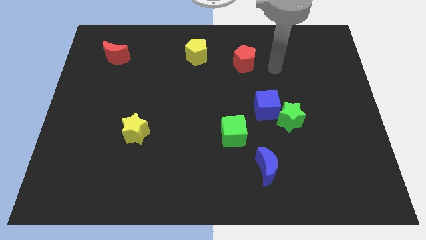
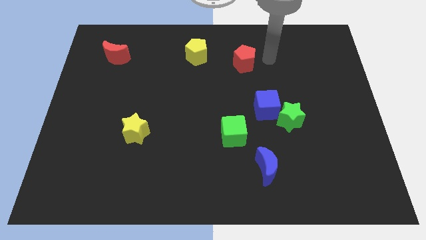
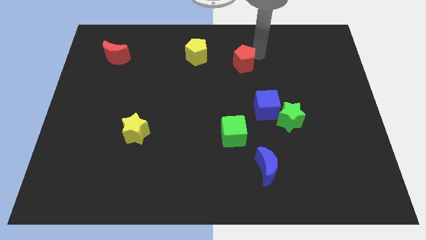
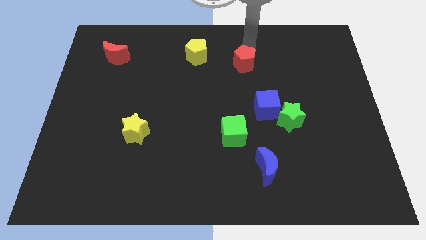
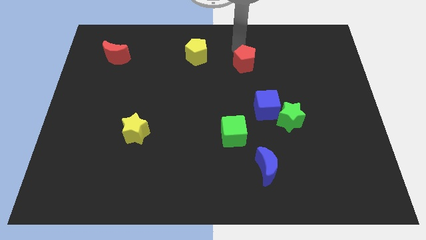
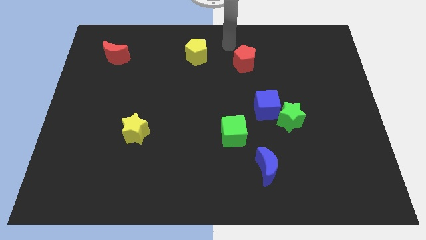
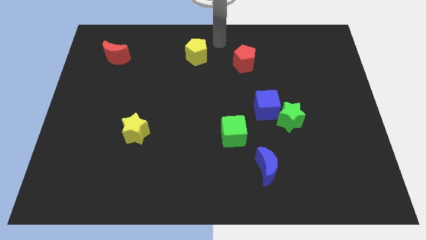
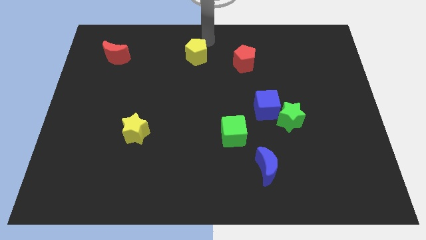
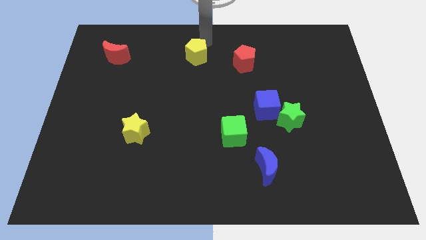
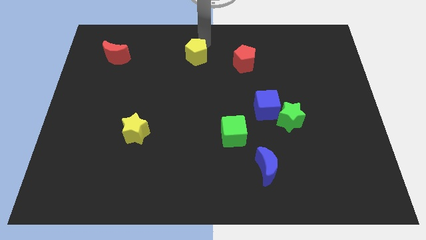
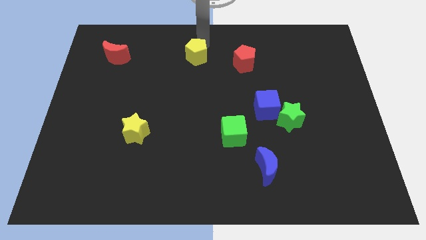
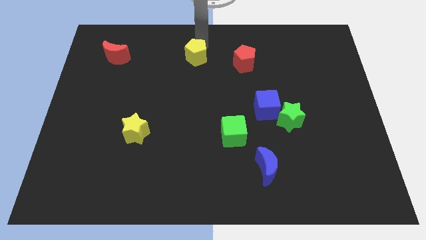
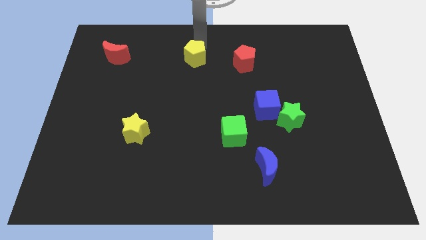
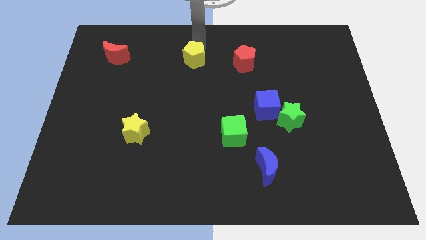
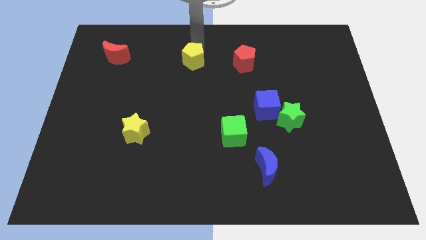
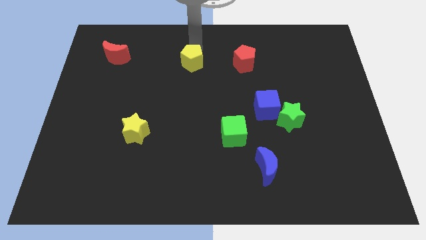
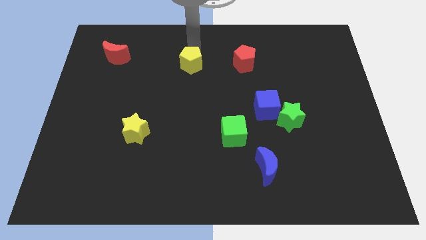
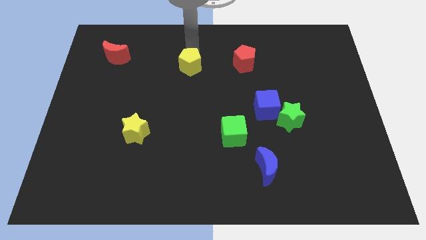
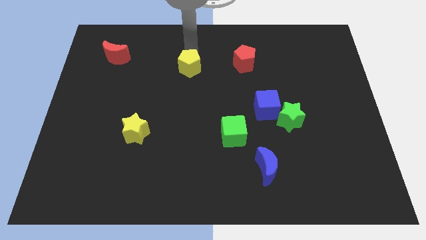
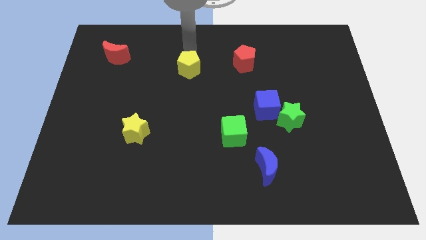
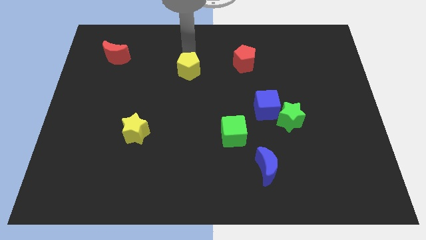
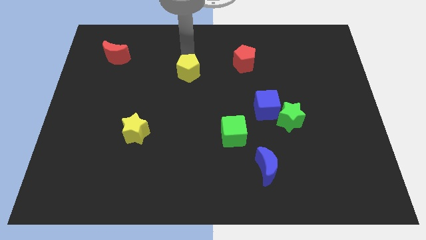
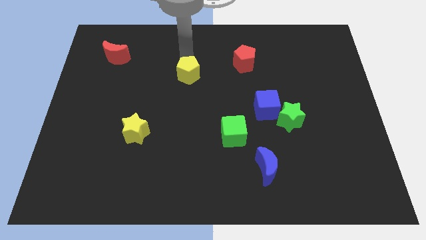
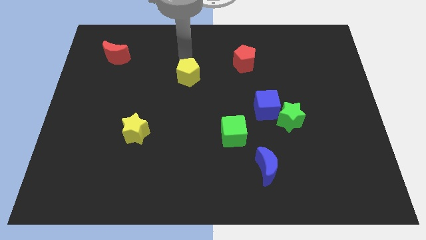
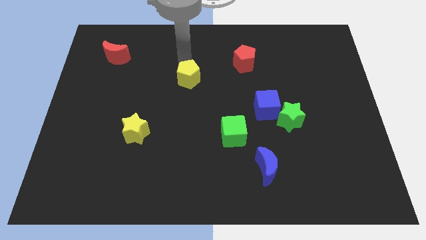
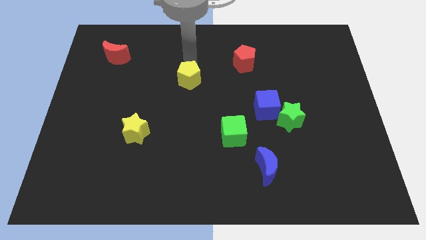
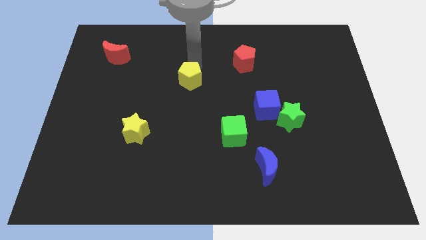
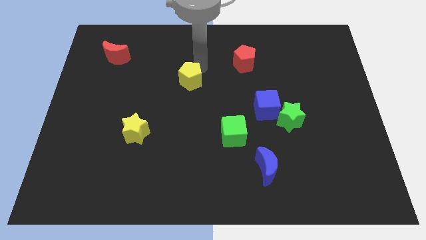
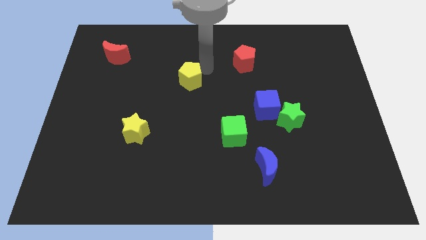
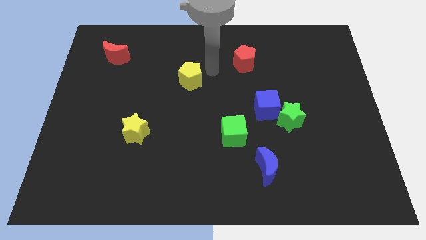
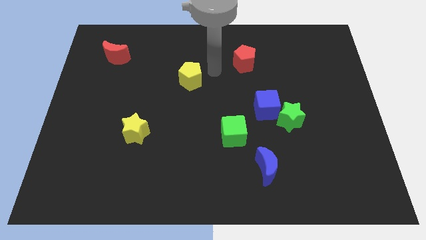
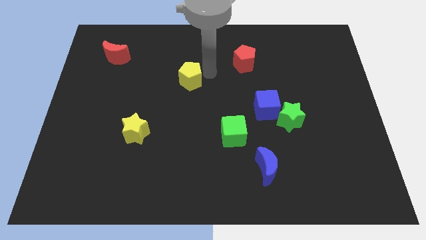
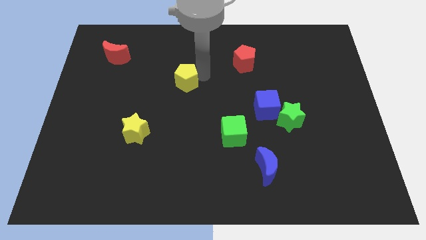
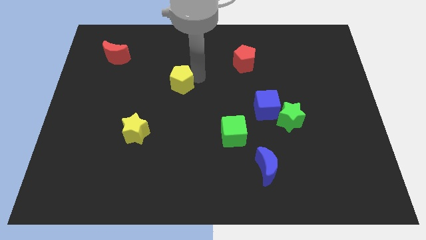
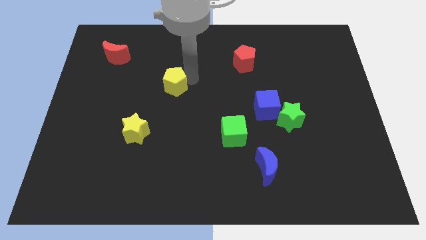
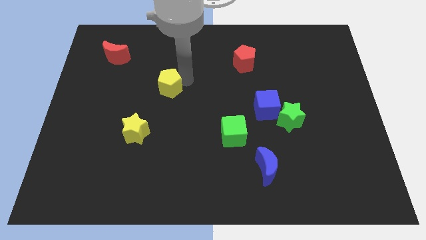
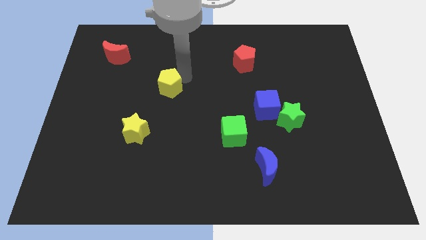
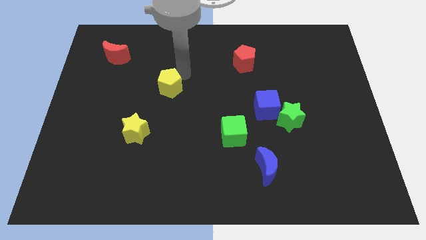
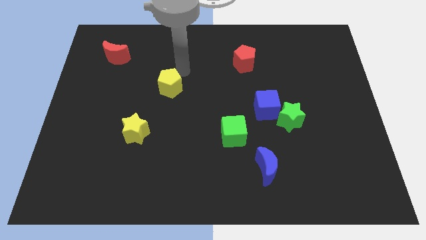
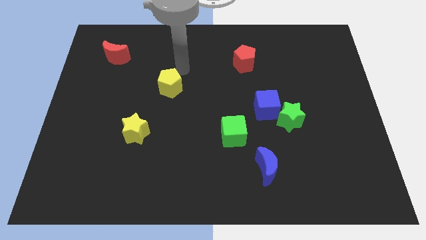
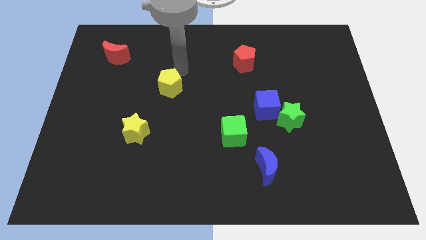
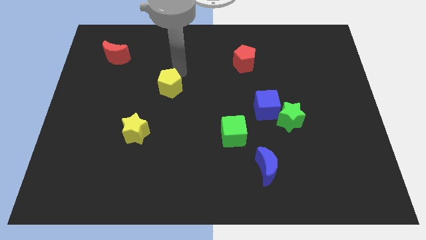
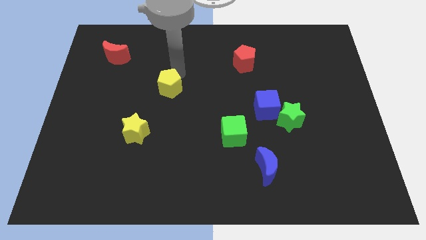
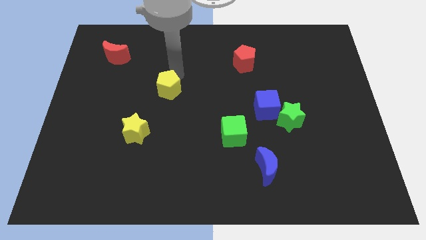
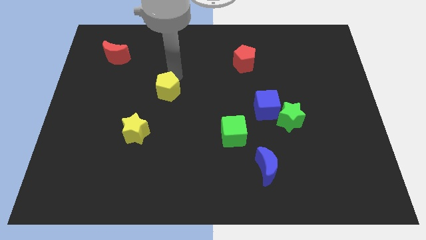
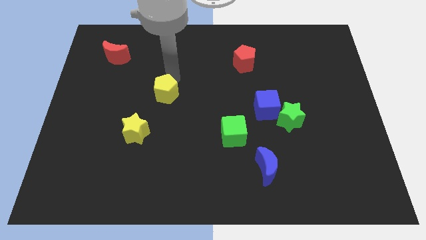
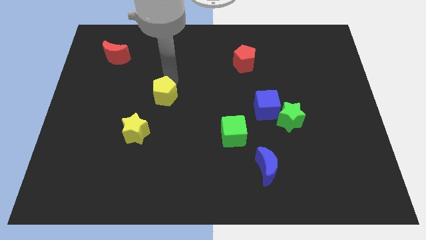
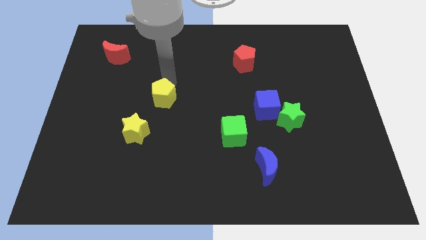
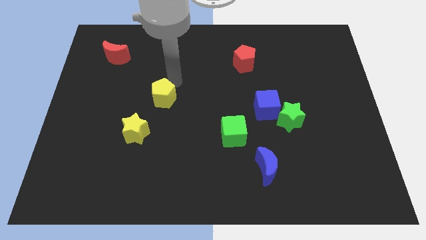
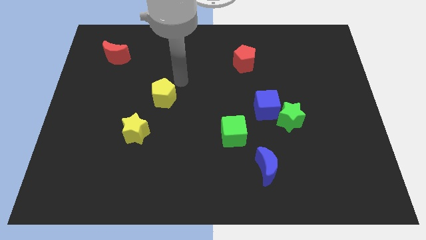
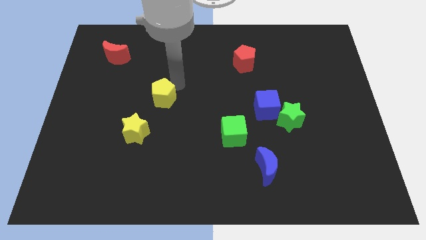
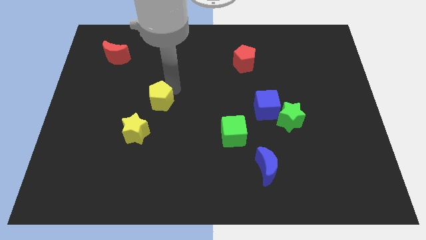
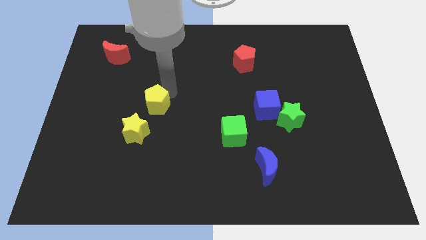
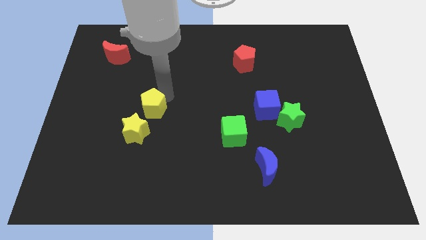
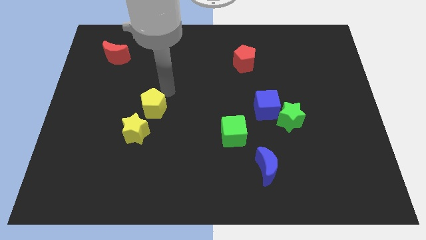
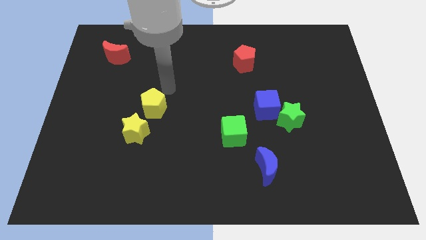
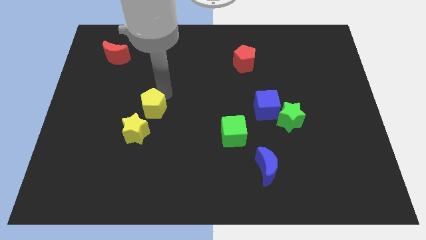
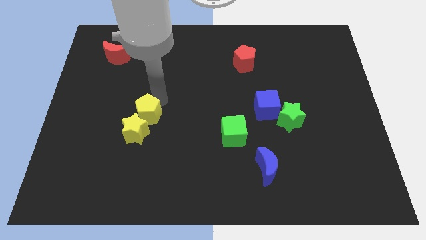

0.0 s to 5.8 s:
put the yellow pentagon towards the yellow star

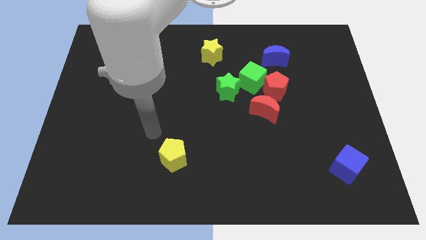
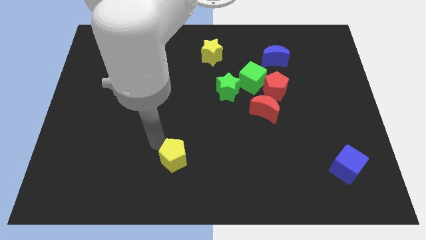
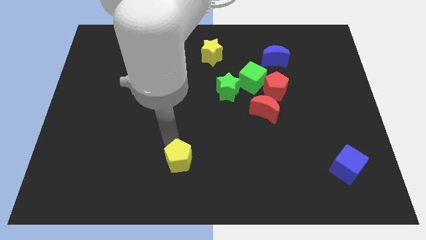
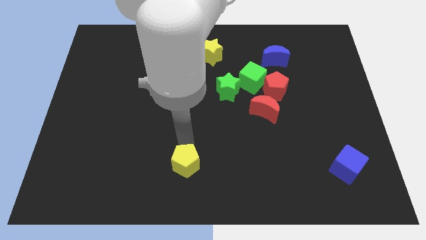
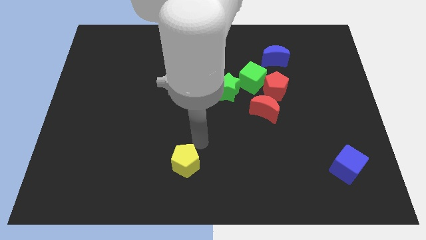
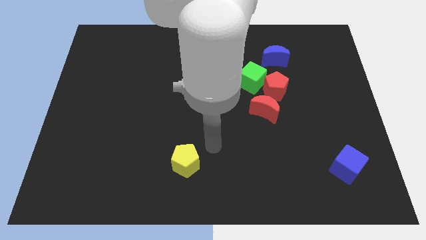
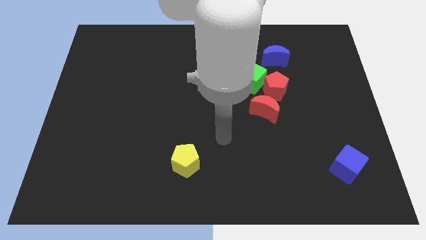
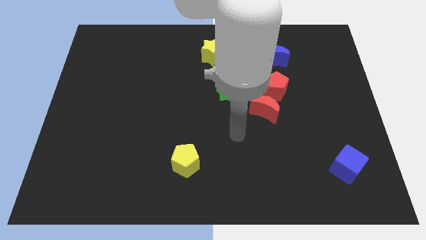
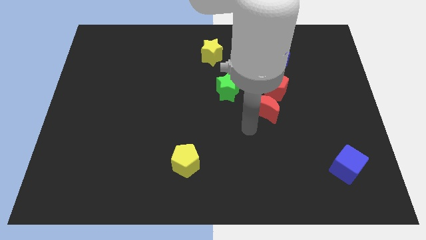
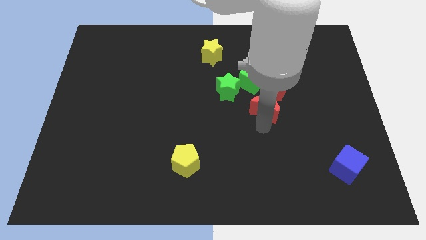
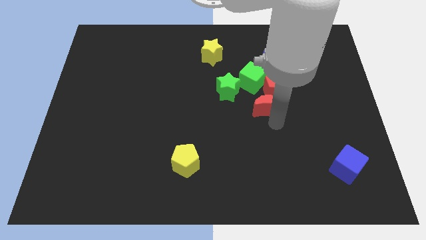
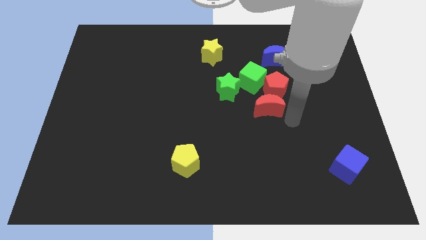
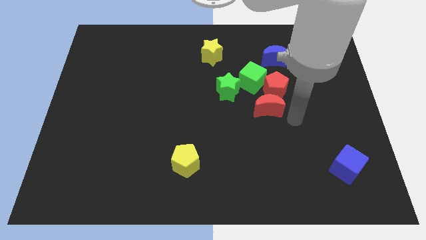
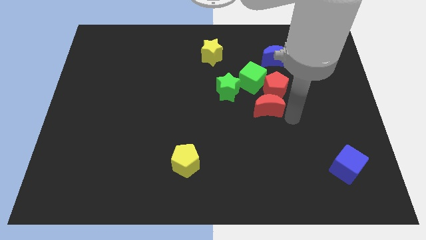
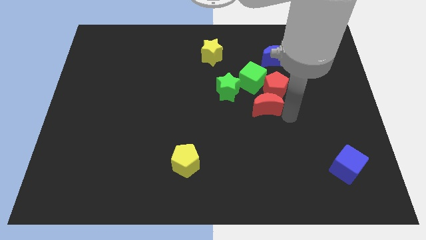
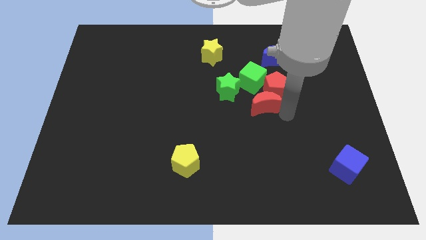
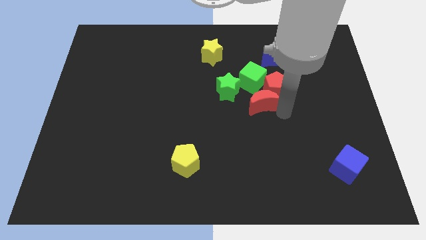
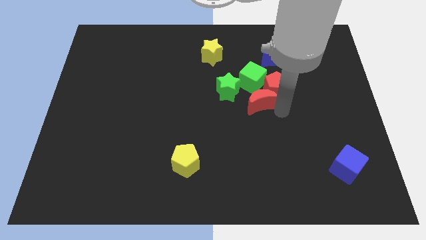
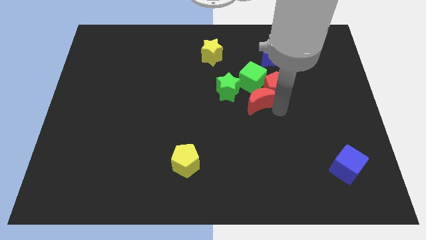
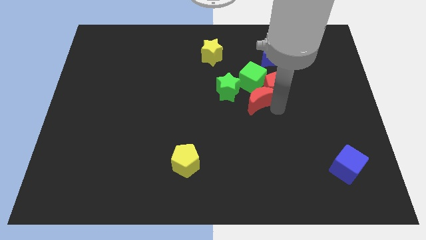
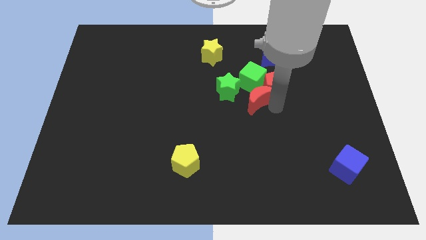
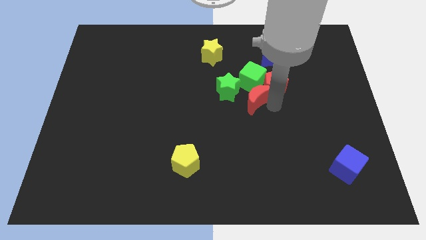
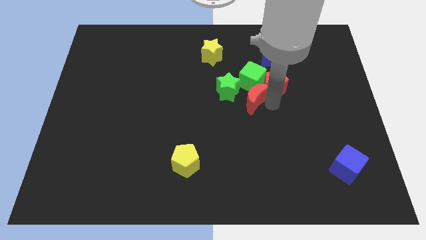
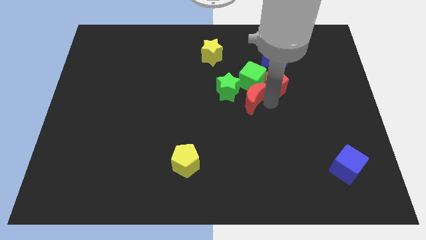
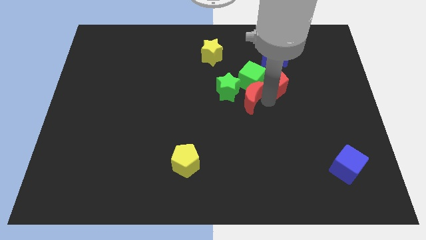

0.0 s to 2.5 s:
move the red moon close to the green star
